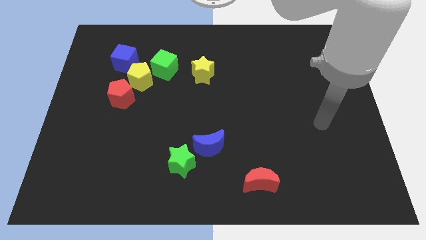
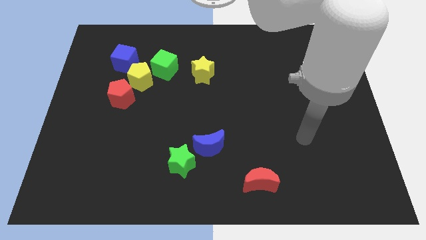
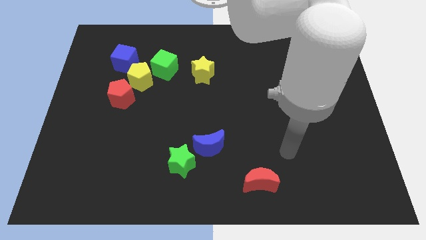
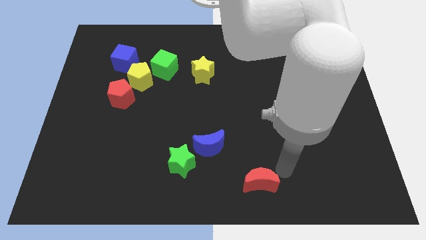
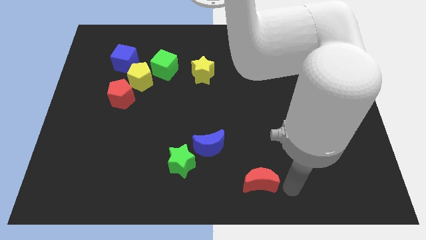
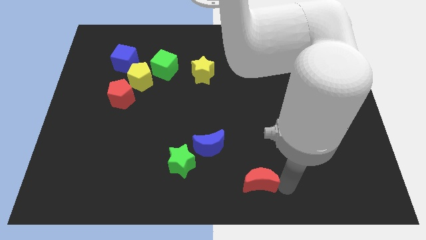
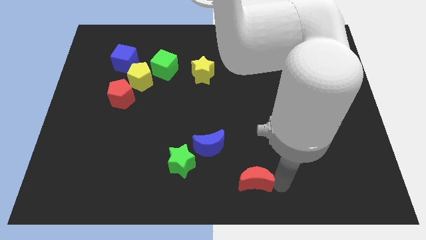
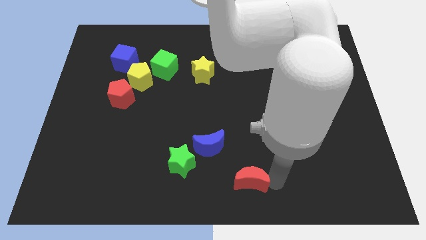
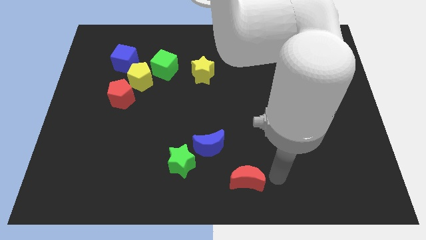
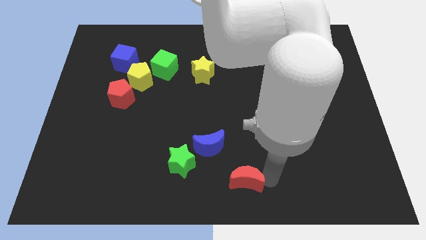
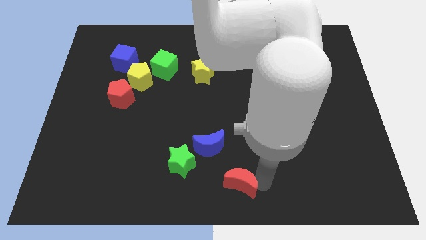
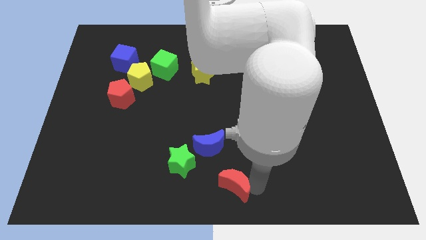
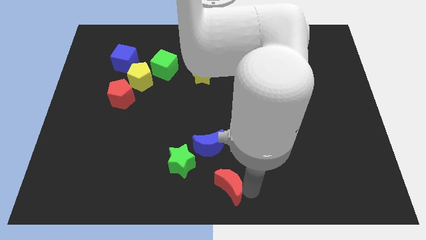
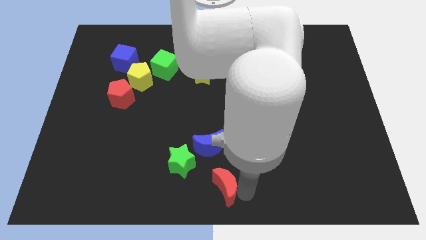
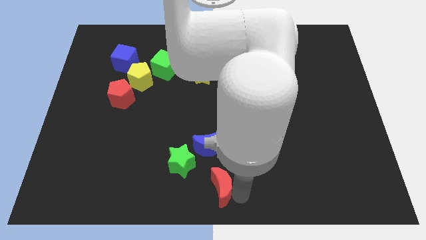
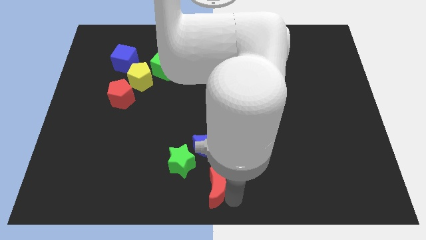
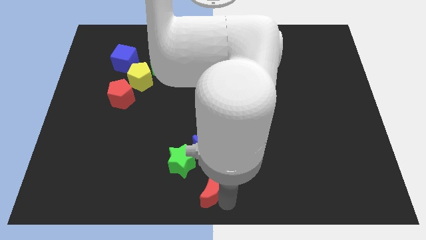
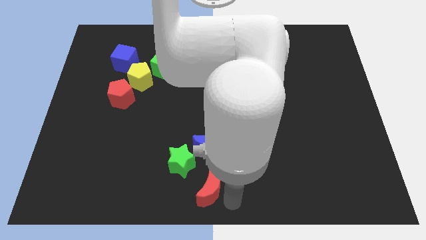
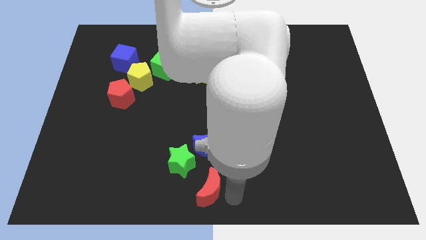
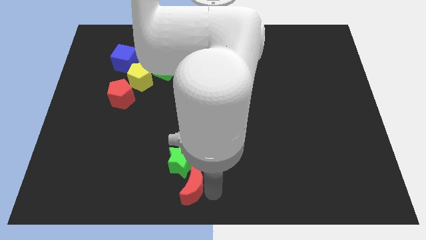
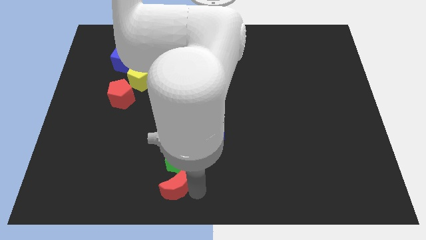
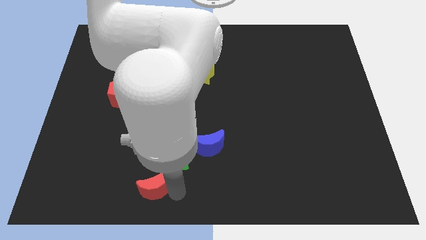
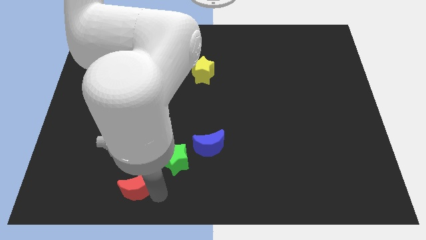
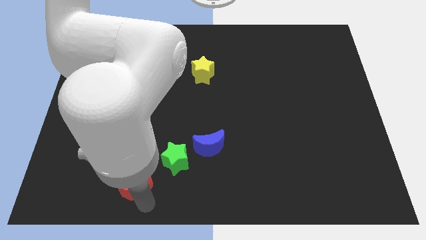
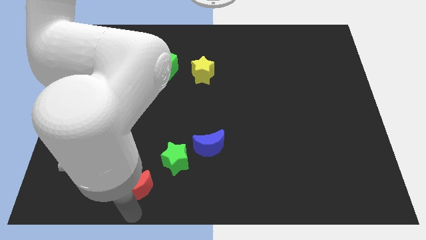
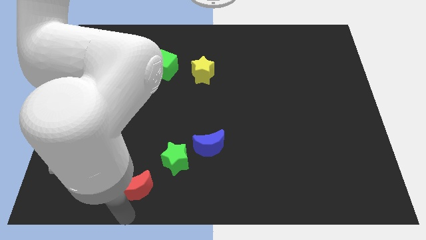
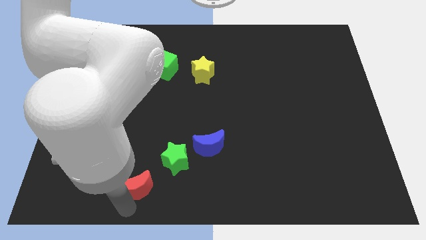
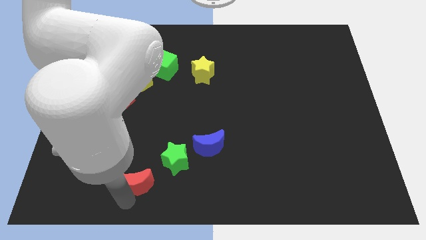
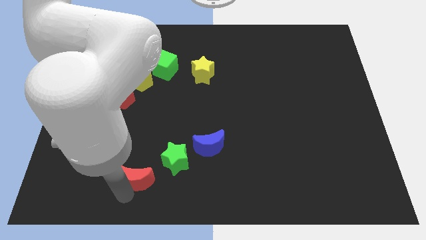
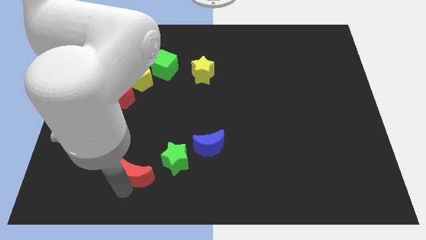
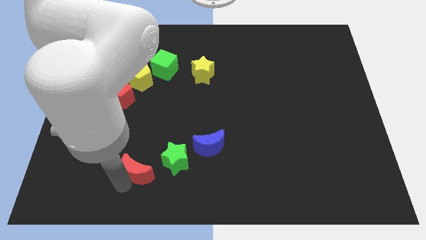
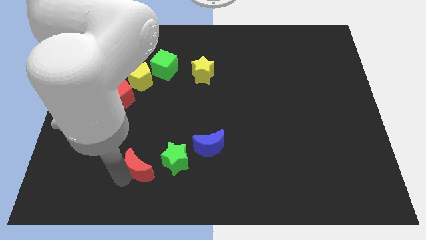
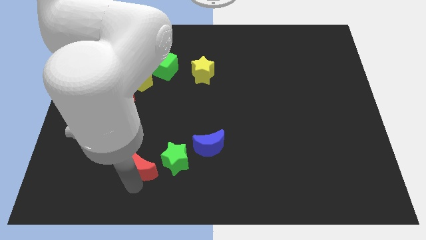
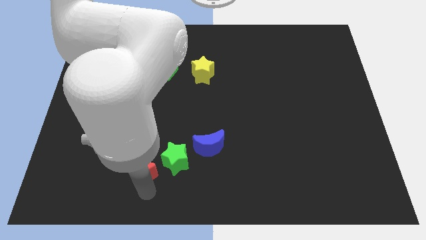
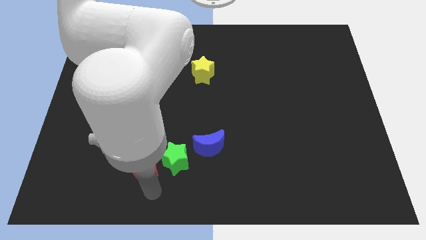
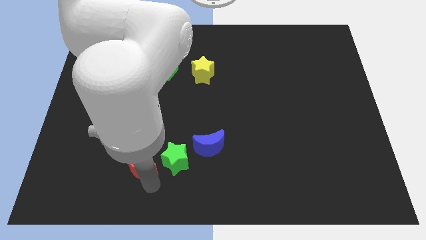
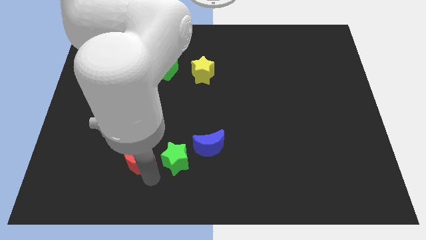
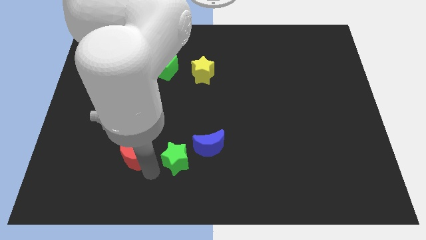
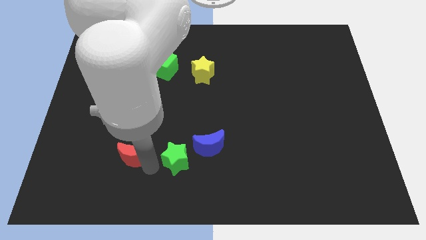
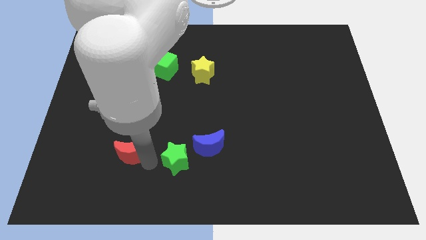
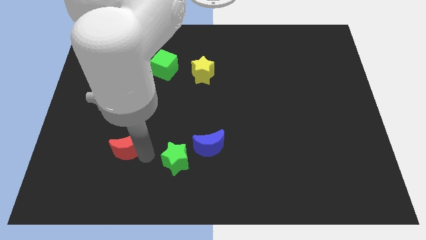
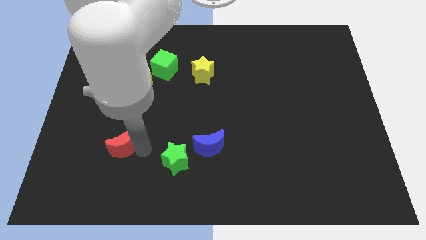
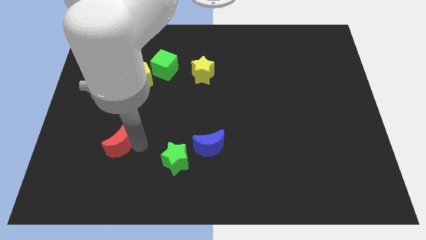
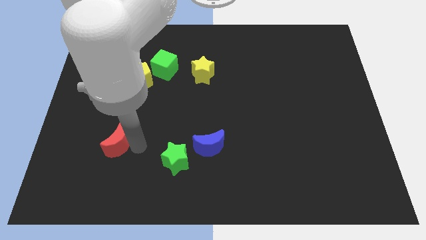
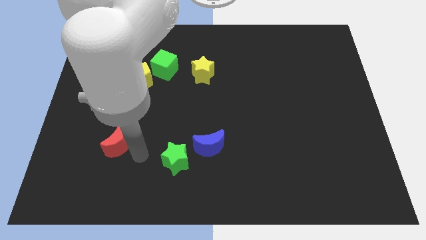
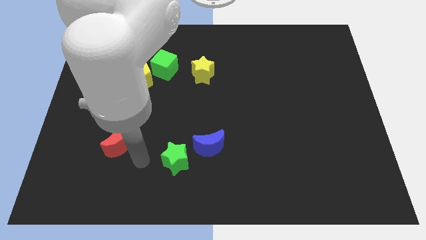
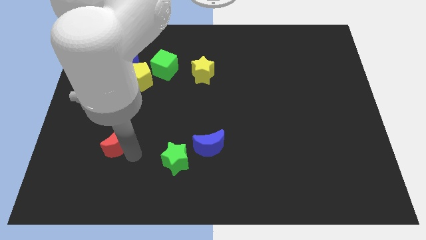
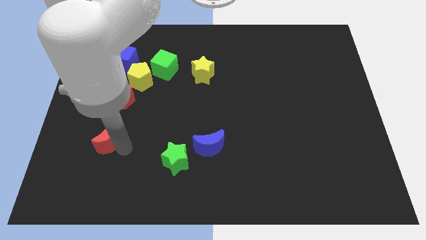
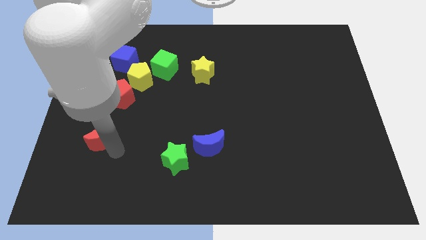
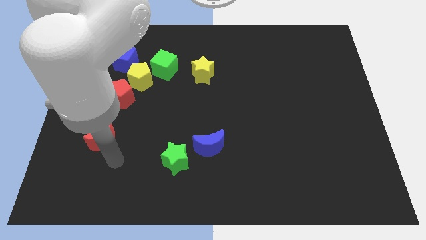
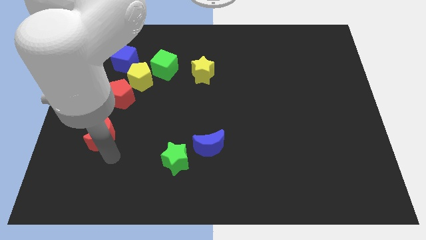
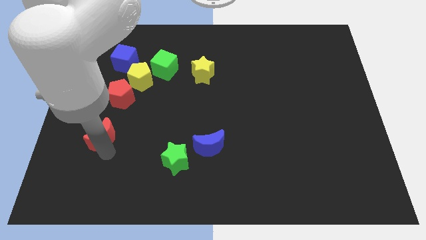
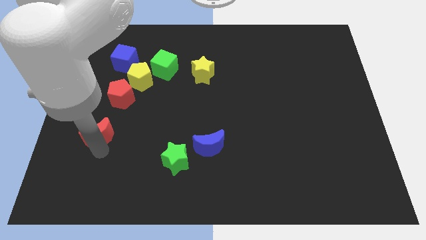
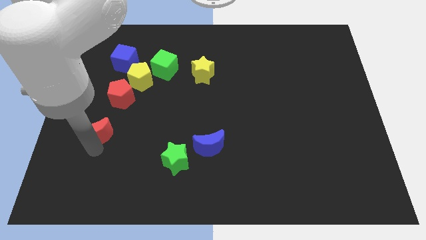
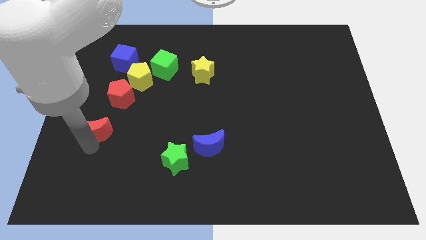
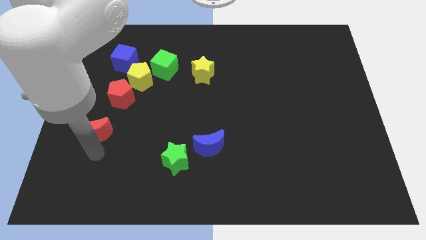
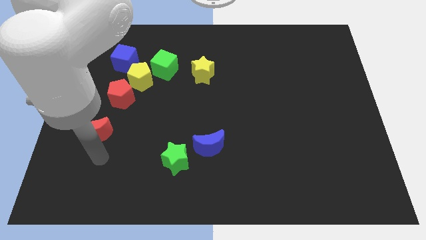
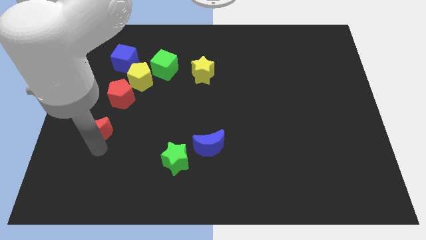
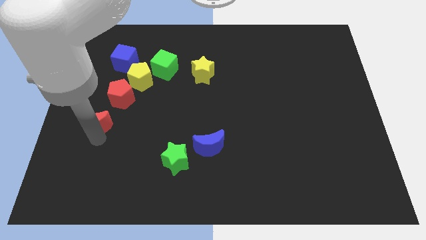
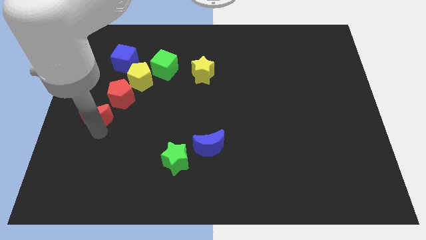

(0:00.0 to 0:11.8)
slide the red moon to the center left
